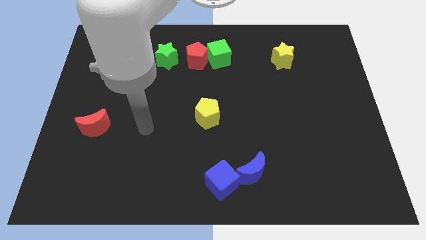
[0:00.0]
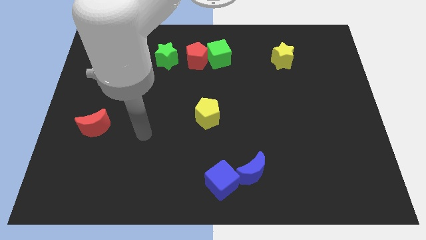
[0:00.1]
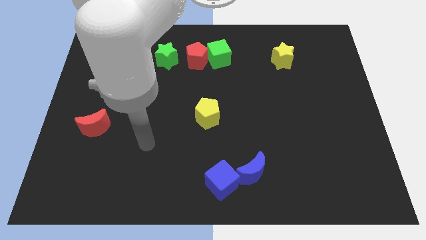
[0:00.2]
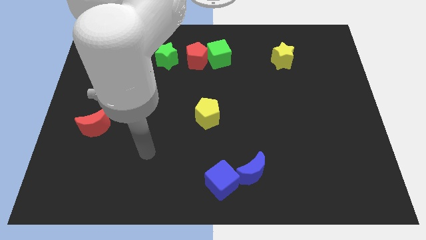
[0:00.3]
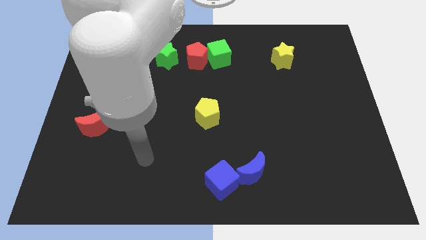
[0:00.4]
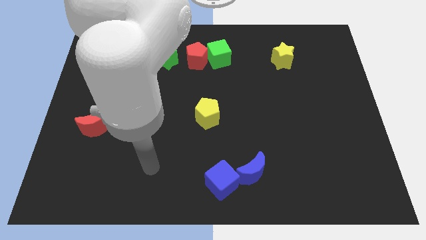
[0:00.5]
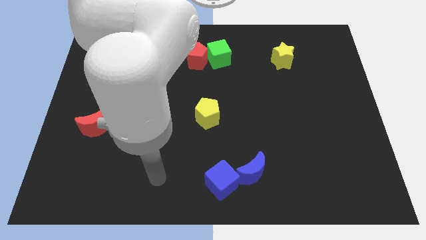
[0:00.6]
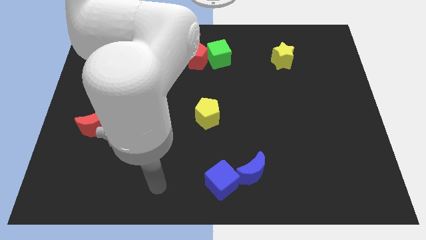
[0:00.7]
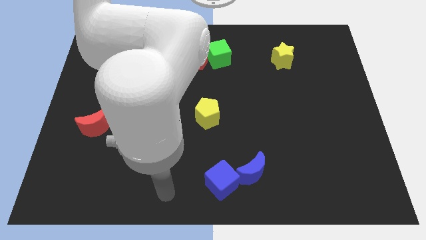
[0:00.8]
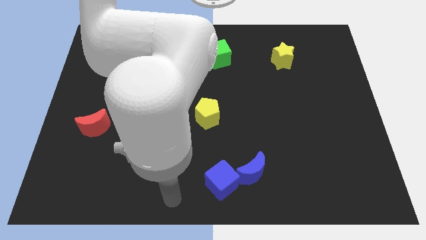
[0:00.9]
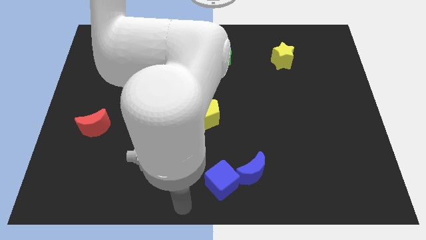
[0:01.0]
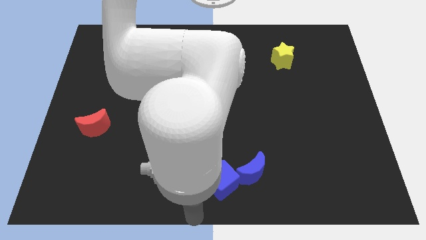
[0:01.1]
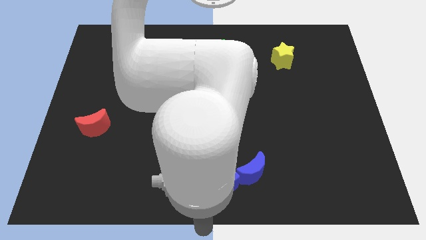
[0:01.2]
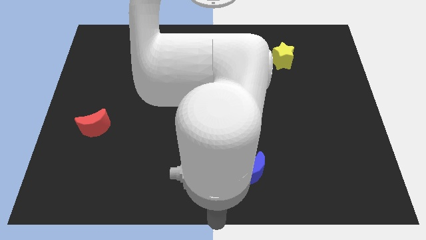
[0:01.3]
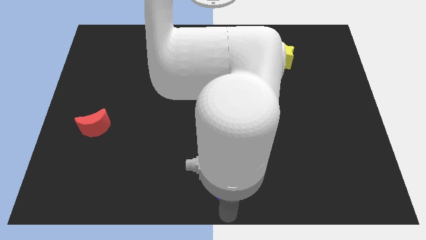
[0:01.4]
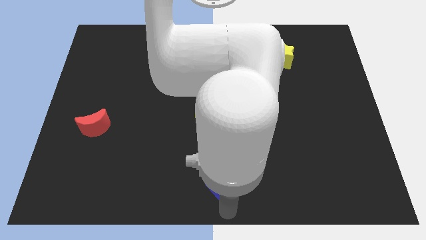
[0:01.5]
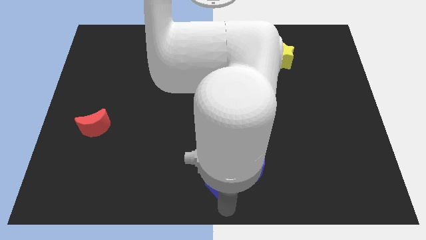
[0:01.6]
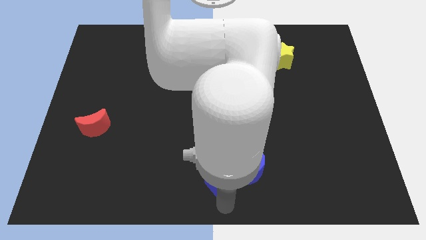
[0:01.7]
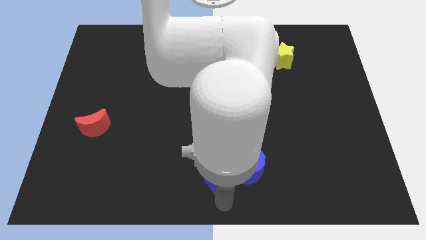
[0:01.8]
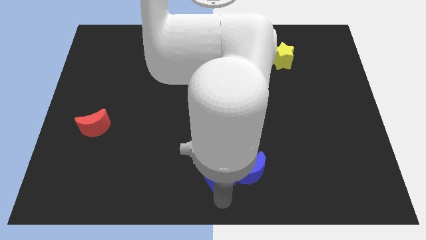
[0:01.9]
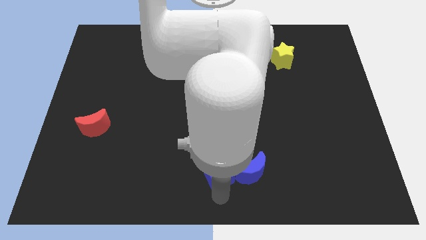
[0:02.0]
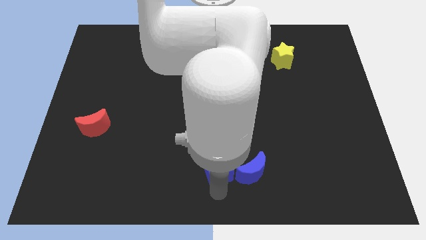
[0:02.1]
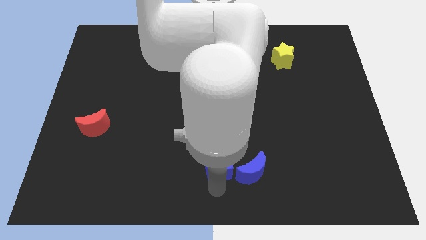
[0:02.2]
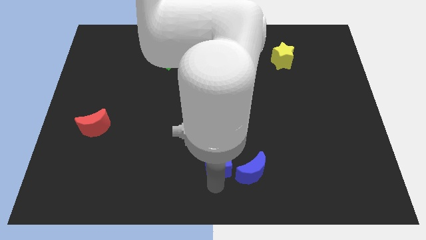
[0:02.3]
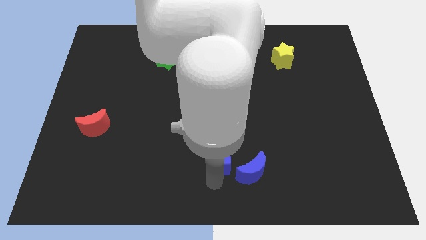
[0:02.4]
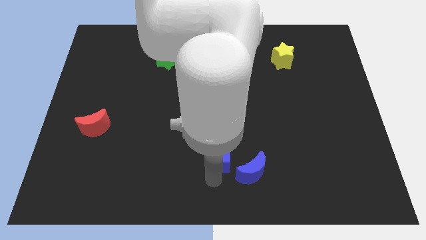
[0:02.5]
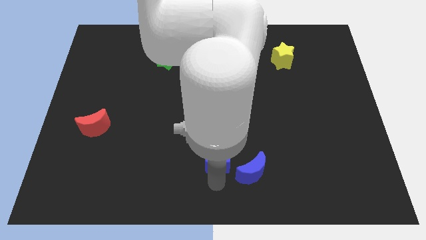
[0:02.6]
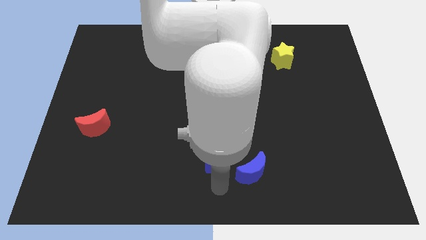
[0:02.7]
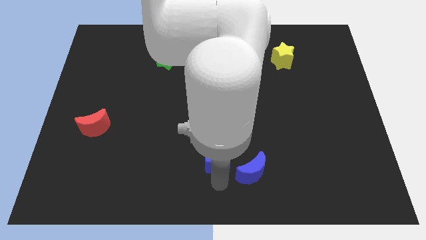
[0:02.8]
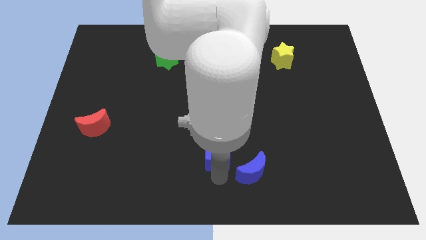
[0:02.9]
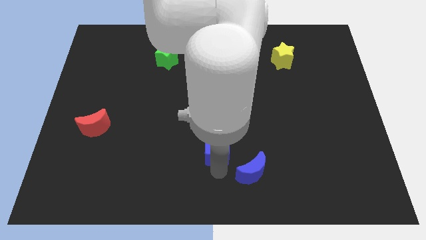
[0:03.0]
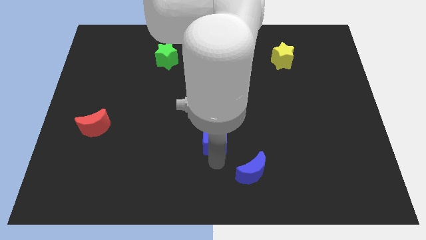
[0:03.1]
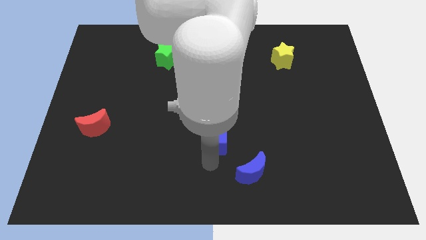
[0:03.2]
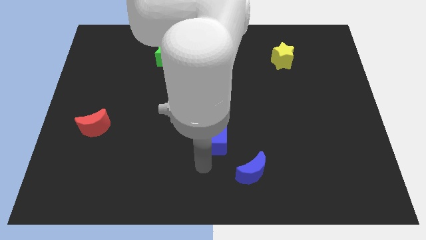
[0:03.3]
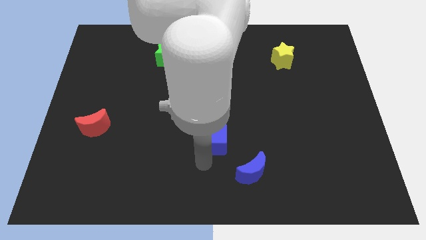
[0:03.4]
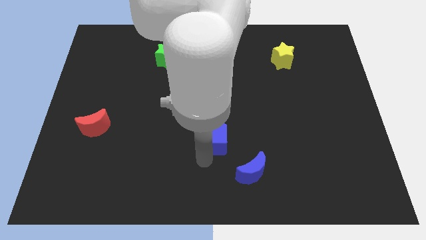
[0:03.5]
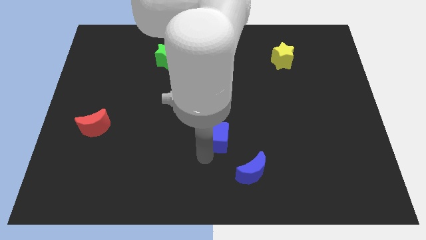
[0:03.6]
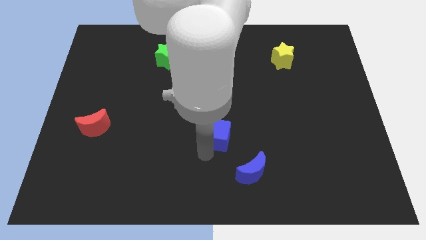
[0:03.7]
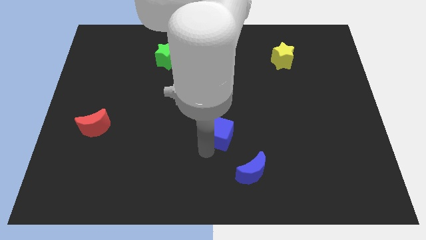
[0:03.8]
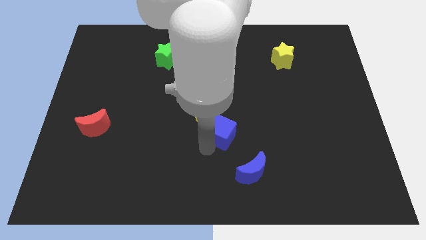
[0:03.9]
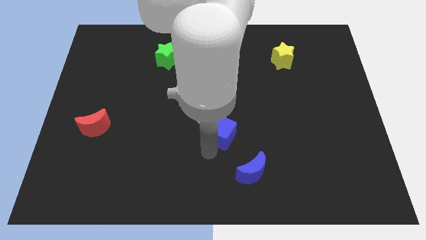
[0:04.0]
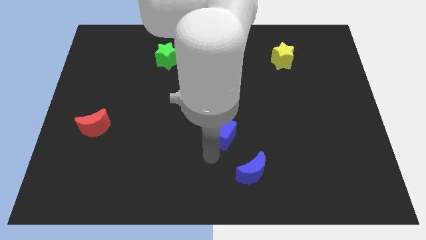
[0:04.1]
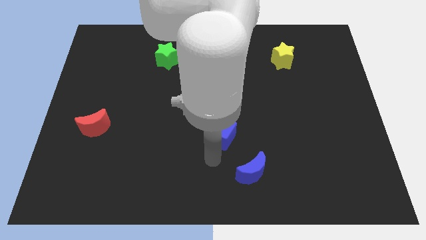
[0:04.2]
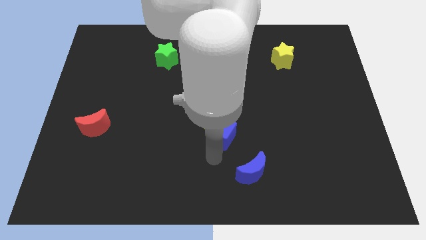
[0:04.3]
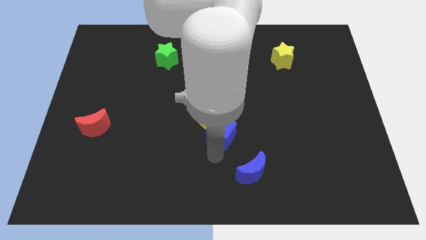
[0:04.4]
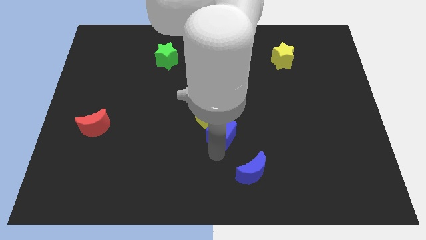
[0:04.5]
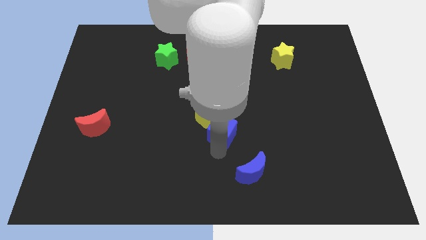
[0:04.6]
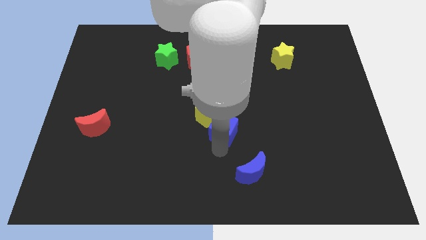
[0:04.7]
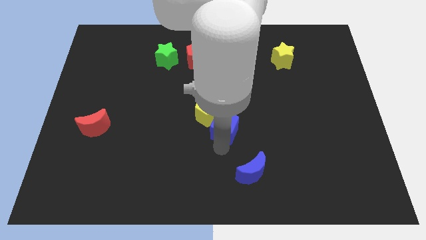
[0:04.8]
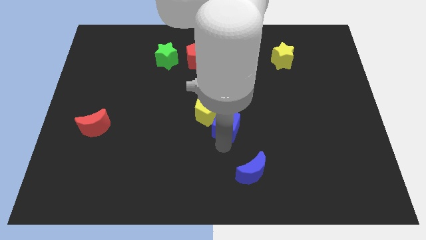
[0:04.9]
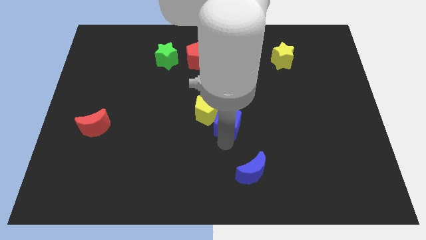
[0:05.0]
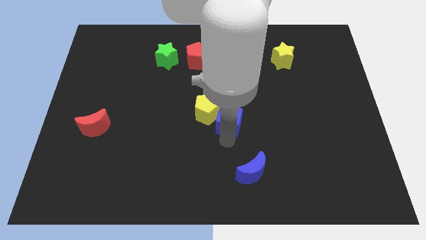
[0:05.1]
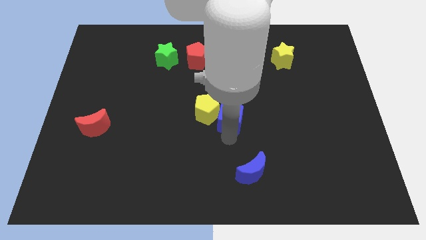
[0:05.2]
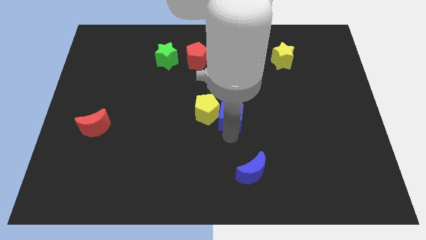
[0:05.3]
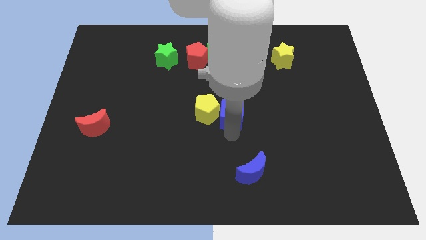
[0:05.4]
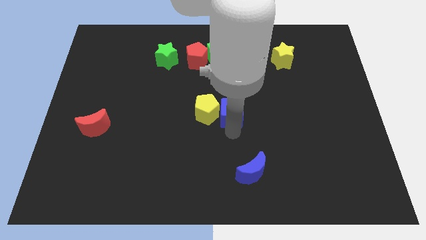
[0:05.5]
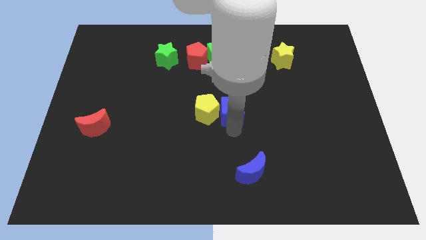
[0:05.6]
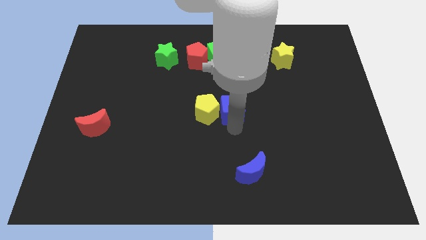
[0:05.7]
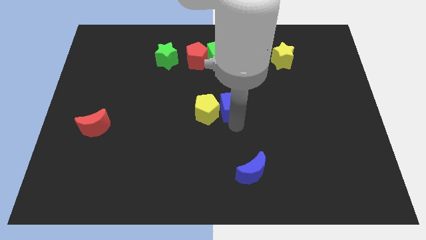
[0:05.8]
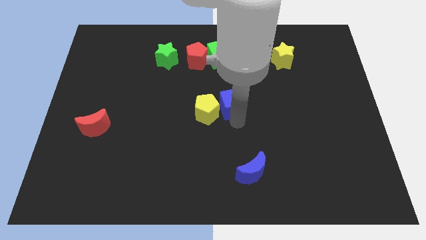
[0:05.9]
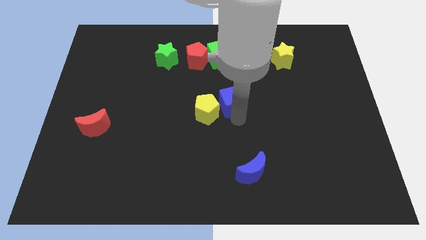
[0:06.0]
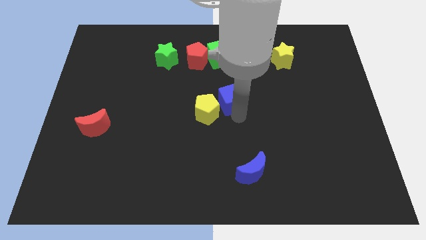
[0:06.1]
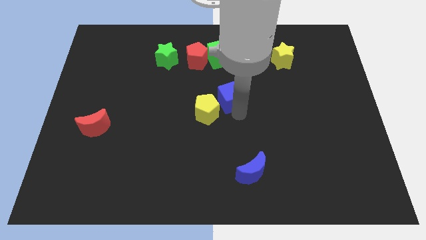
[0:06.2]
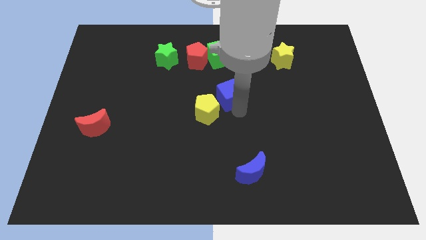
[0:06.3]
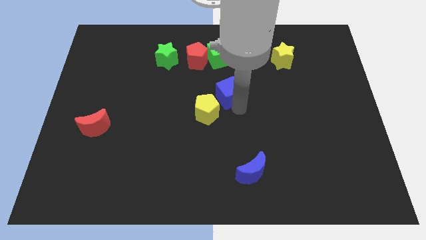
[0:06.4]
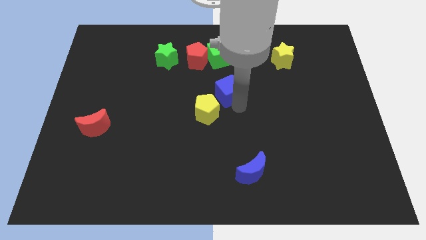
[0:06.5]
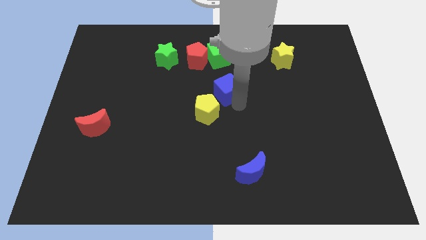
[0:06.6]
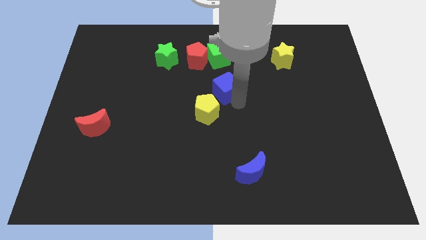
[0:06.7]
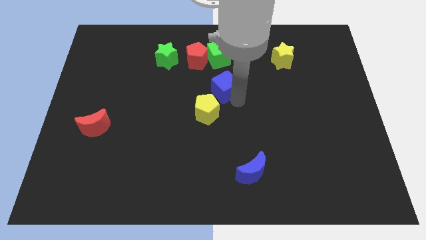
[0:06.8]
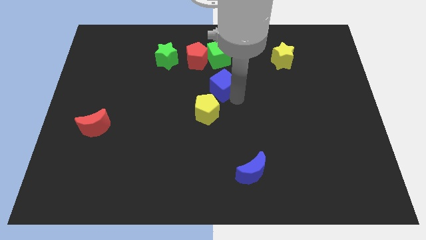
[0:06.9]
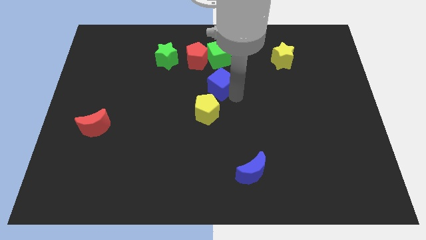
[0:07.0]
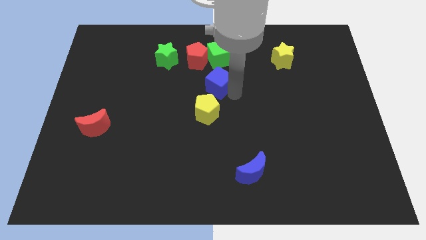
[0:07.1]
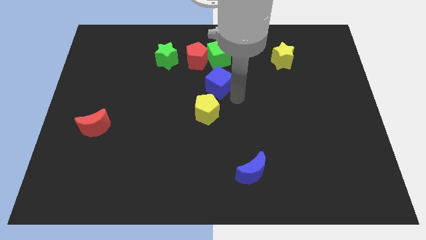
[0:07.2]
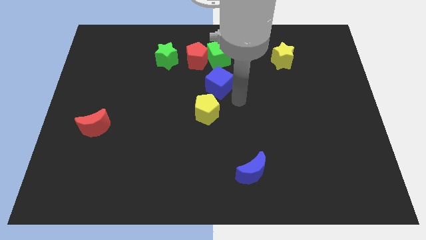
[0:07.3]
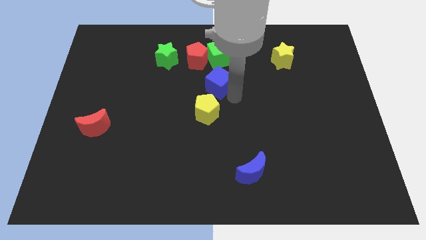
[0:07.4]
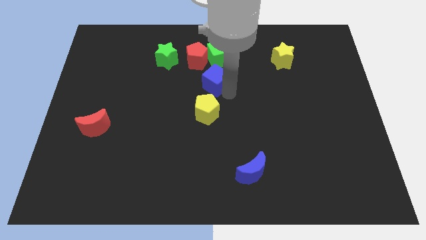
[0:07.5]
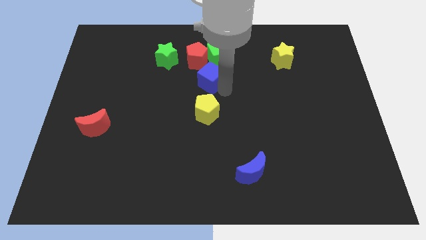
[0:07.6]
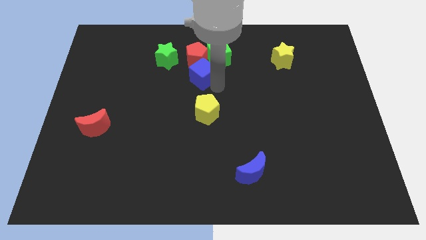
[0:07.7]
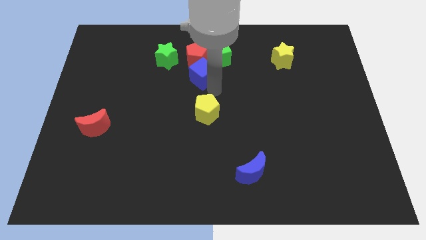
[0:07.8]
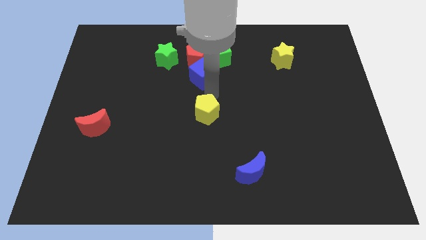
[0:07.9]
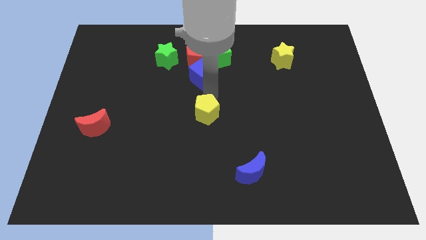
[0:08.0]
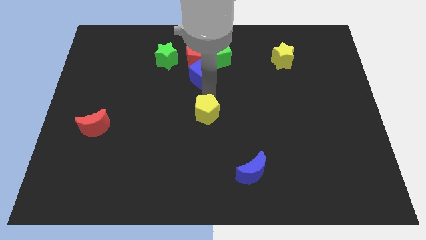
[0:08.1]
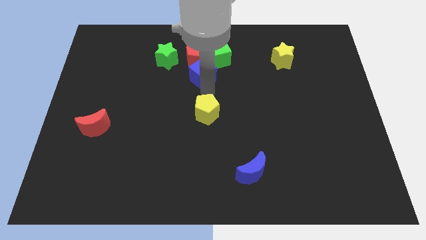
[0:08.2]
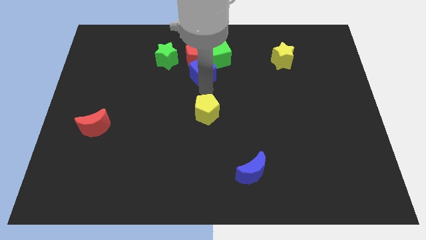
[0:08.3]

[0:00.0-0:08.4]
push the blue cube to the red pentagon
